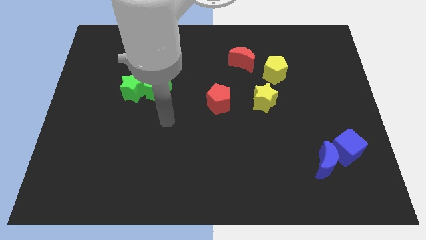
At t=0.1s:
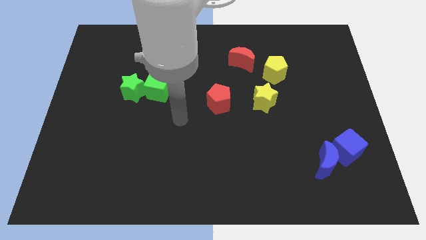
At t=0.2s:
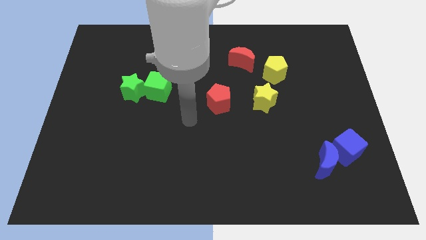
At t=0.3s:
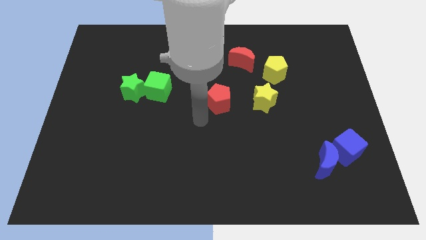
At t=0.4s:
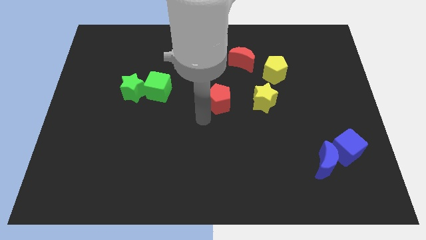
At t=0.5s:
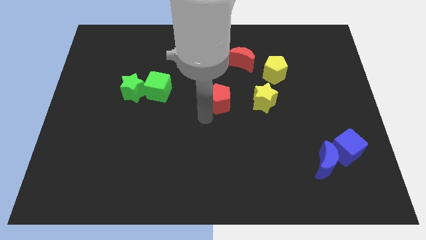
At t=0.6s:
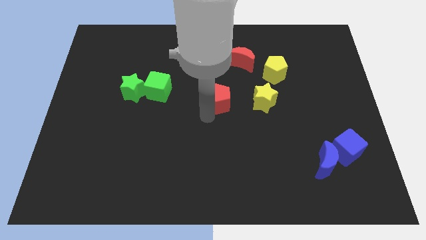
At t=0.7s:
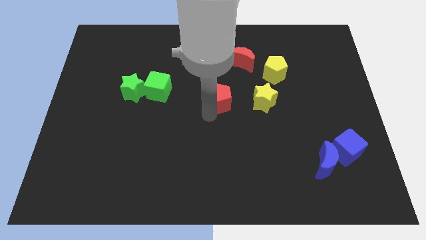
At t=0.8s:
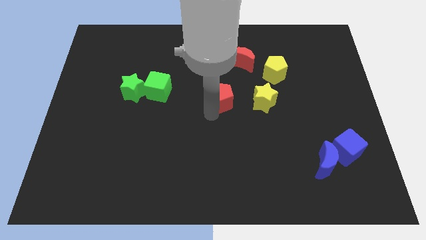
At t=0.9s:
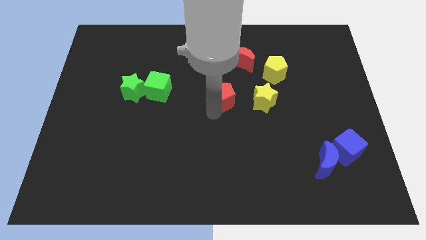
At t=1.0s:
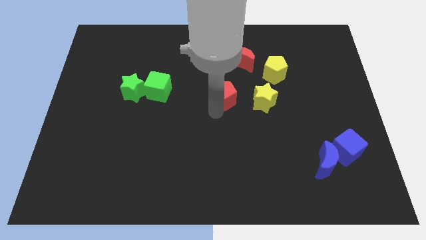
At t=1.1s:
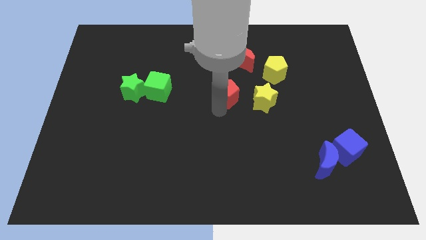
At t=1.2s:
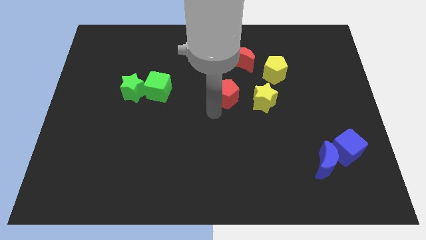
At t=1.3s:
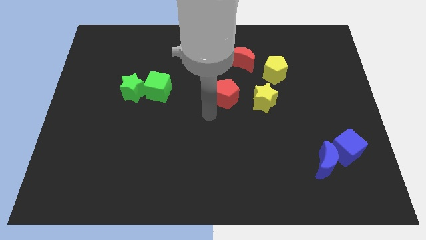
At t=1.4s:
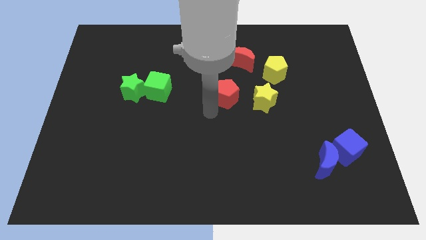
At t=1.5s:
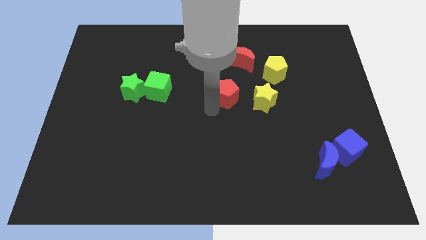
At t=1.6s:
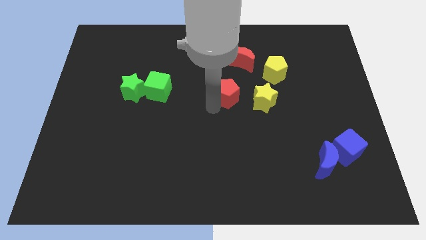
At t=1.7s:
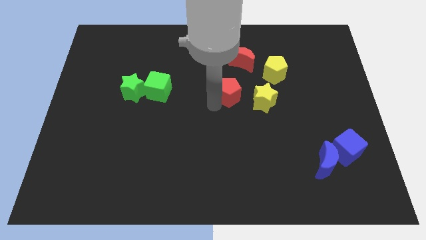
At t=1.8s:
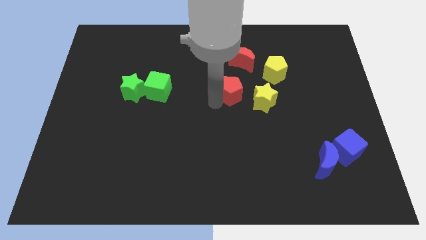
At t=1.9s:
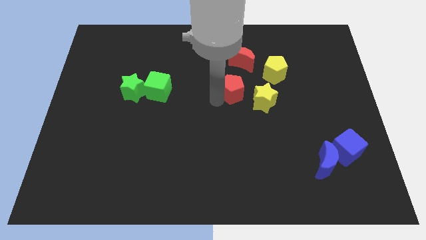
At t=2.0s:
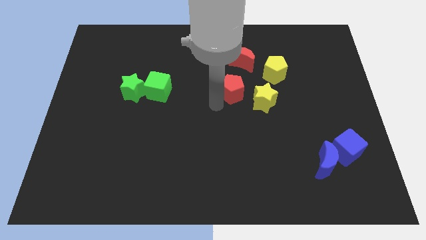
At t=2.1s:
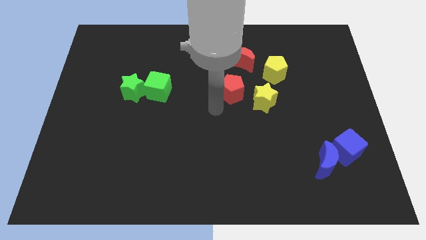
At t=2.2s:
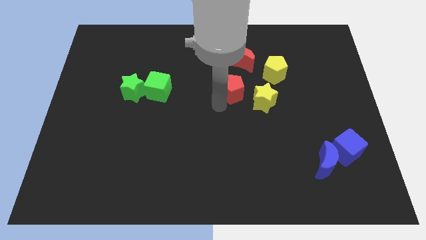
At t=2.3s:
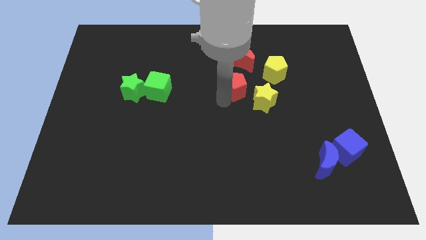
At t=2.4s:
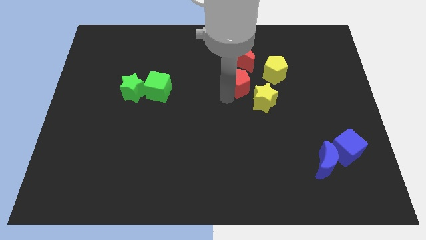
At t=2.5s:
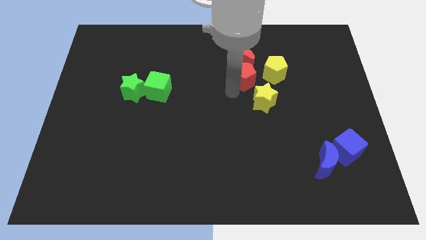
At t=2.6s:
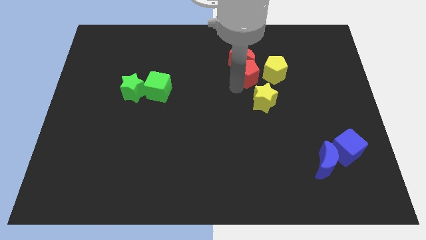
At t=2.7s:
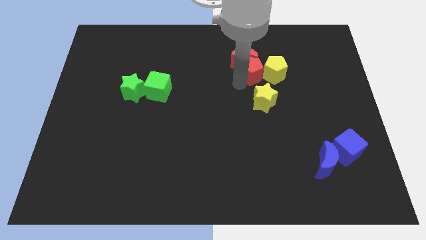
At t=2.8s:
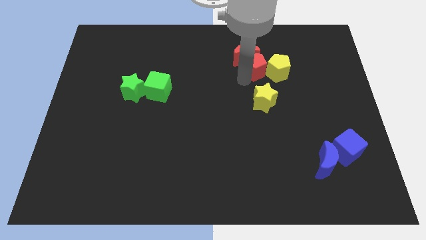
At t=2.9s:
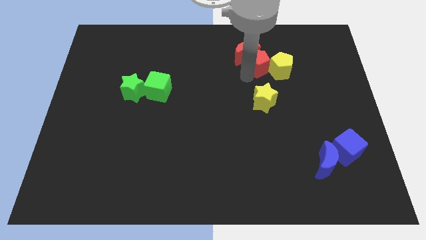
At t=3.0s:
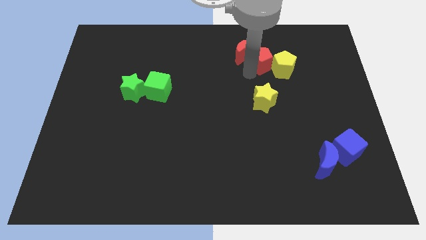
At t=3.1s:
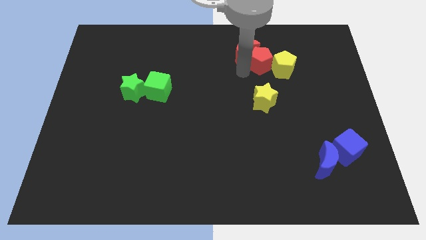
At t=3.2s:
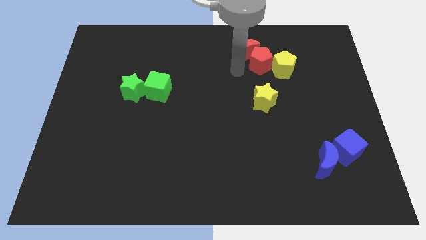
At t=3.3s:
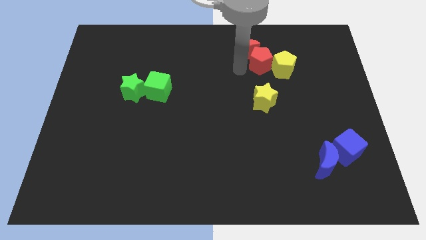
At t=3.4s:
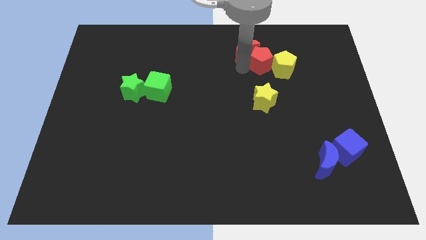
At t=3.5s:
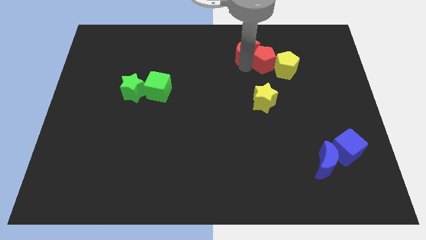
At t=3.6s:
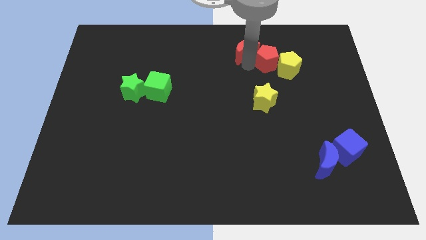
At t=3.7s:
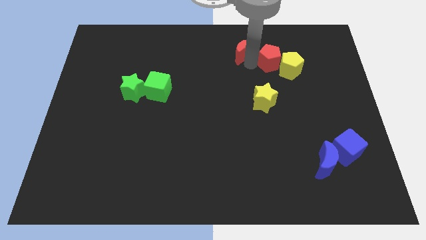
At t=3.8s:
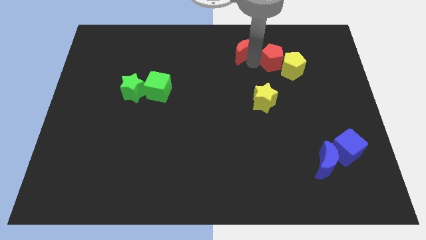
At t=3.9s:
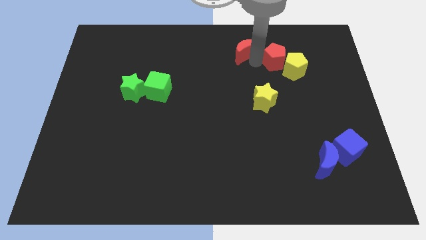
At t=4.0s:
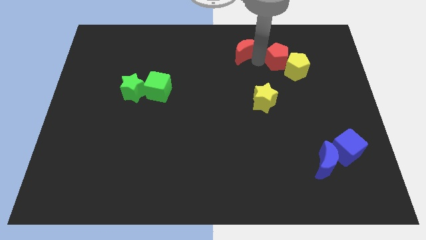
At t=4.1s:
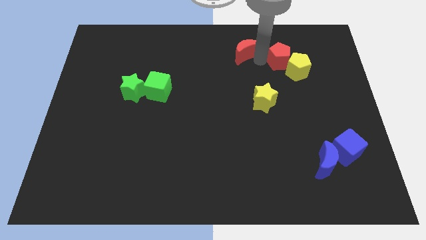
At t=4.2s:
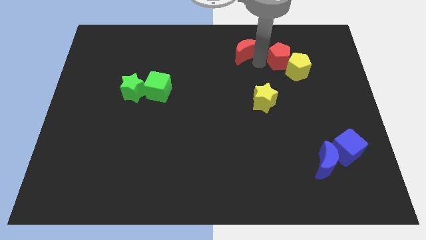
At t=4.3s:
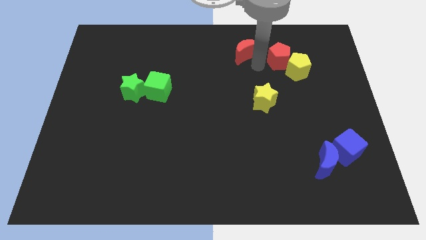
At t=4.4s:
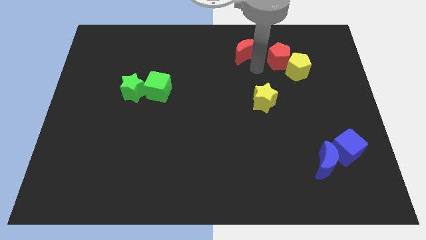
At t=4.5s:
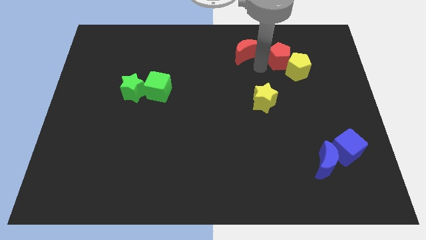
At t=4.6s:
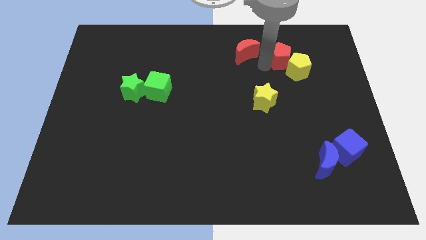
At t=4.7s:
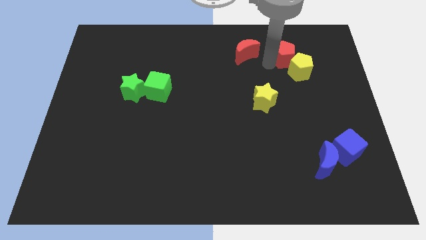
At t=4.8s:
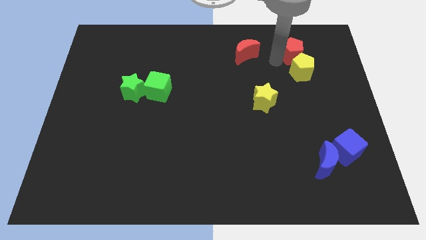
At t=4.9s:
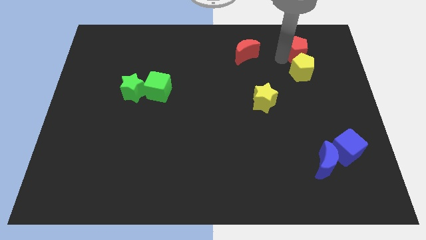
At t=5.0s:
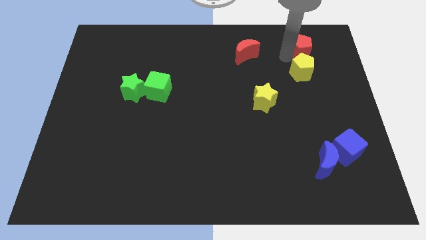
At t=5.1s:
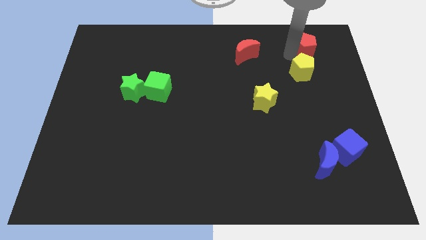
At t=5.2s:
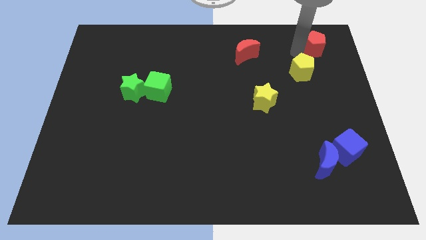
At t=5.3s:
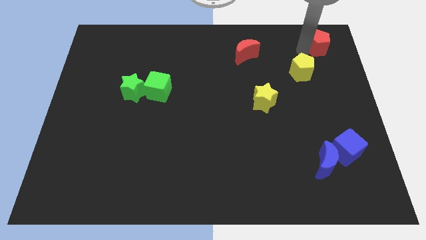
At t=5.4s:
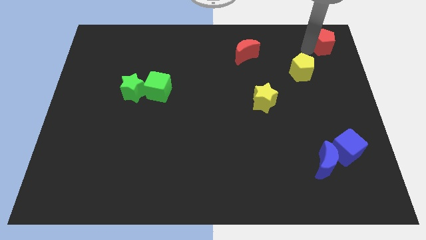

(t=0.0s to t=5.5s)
push the red pentagon to the upper right corner
